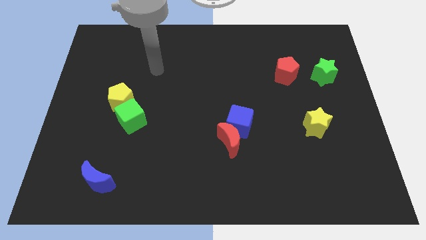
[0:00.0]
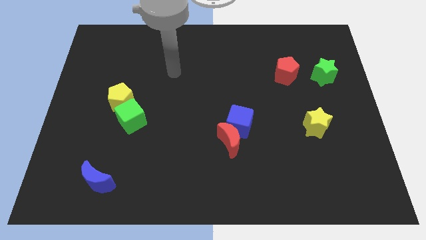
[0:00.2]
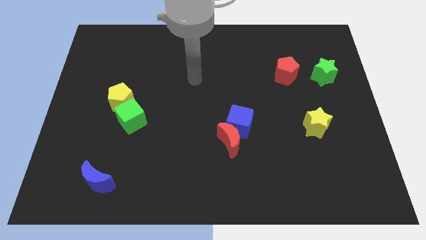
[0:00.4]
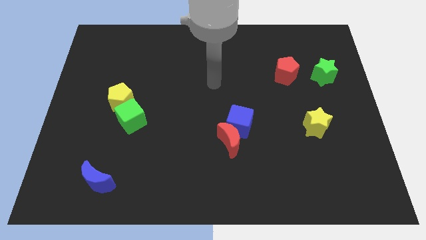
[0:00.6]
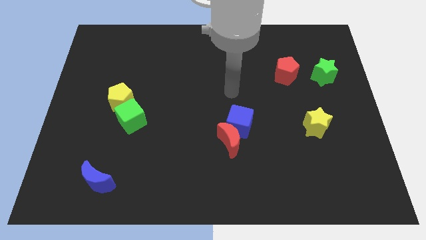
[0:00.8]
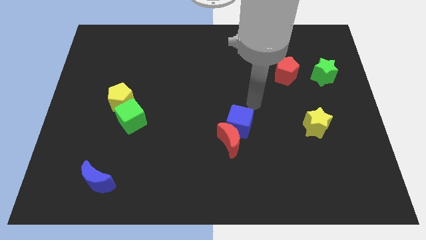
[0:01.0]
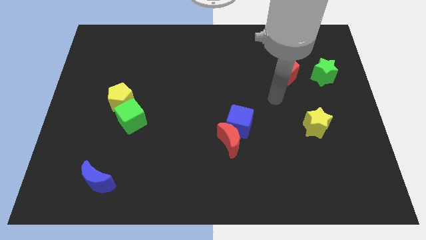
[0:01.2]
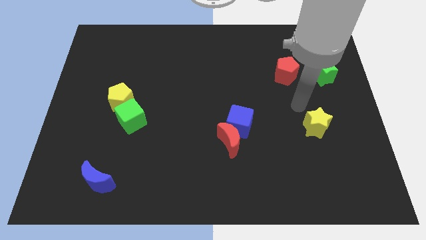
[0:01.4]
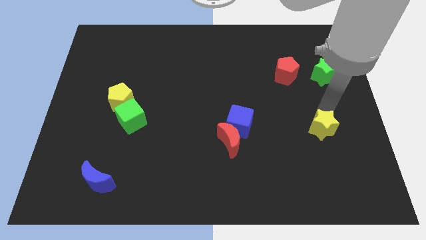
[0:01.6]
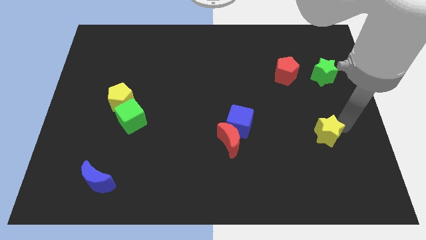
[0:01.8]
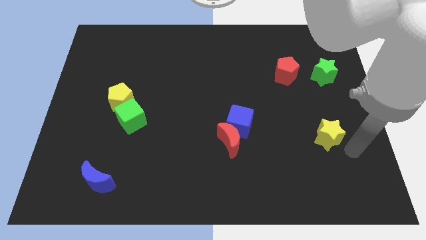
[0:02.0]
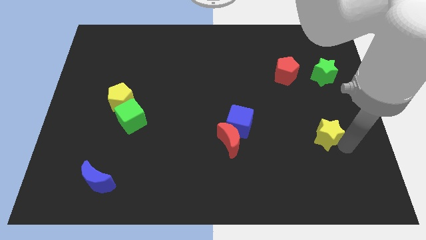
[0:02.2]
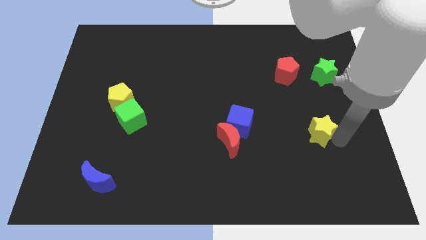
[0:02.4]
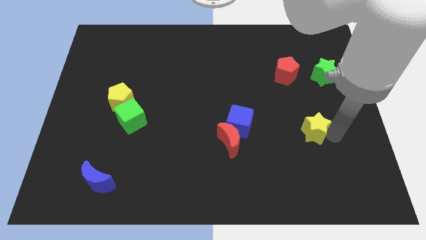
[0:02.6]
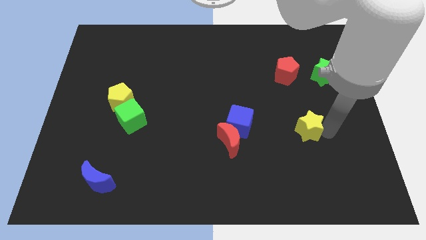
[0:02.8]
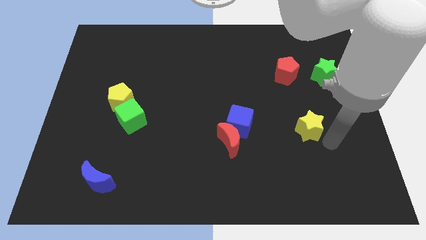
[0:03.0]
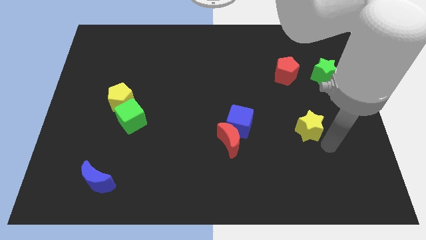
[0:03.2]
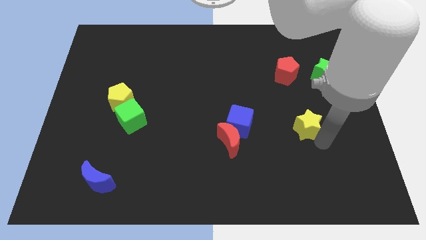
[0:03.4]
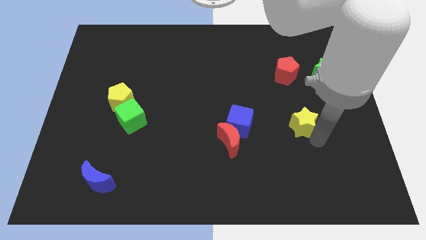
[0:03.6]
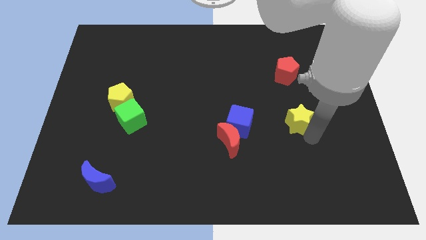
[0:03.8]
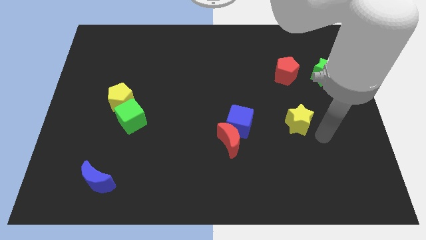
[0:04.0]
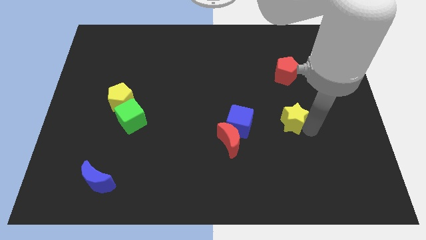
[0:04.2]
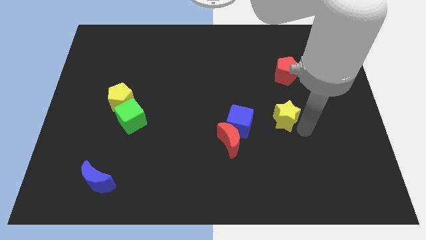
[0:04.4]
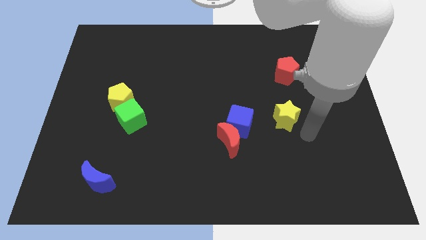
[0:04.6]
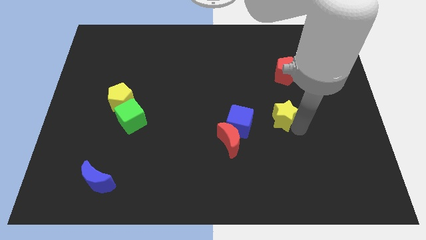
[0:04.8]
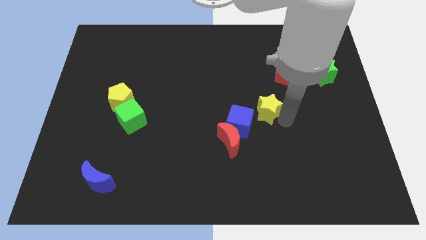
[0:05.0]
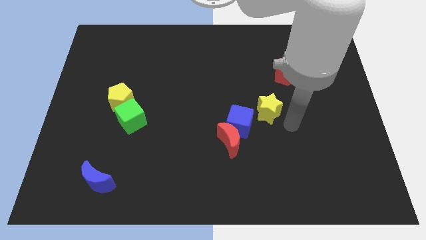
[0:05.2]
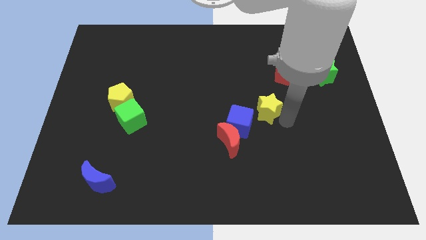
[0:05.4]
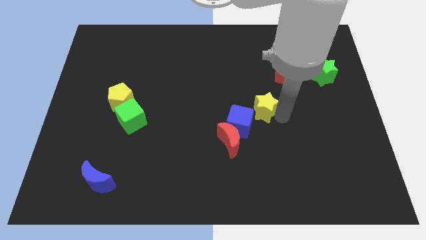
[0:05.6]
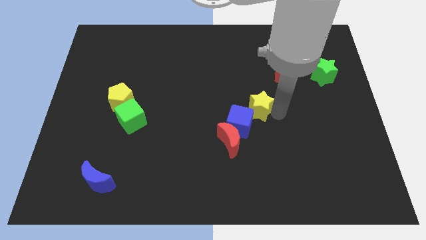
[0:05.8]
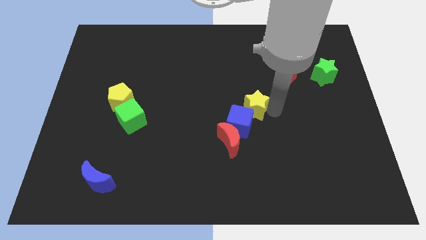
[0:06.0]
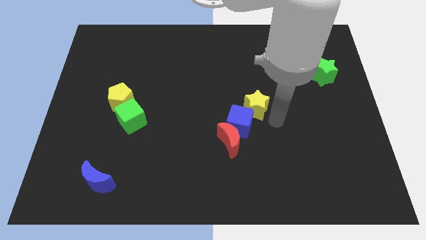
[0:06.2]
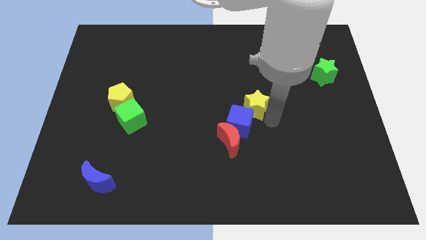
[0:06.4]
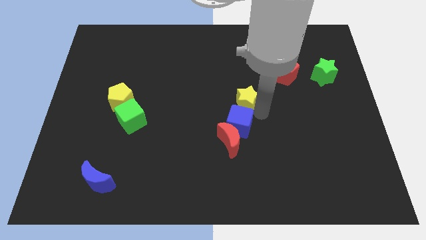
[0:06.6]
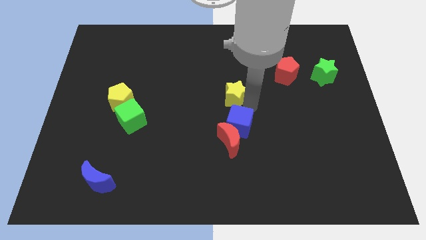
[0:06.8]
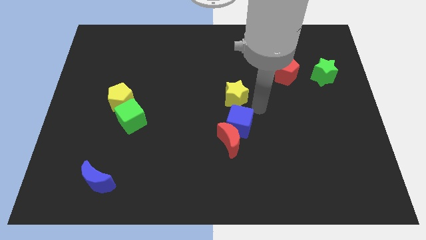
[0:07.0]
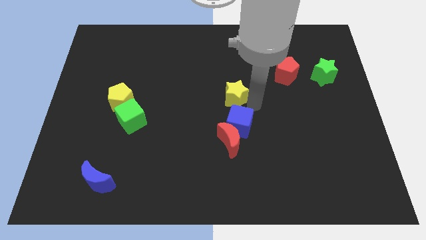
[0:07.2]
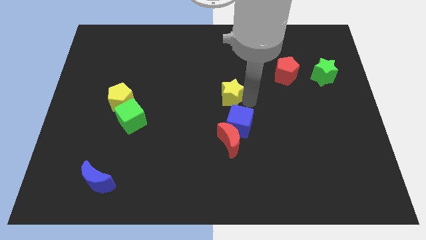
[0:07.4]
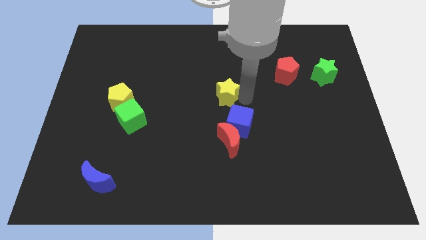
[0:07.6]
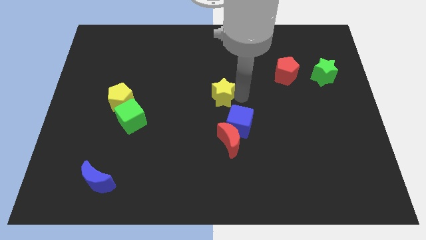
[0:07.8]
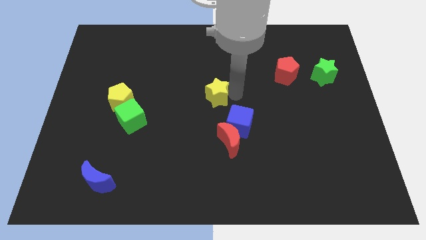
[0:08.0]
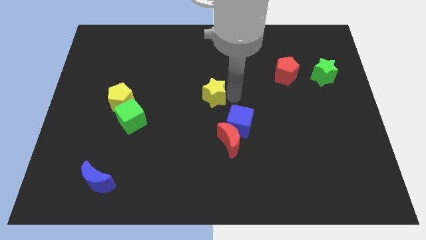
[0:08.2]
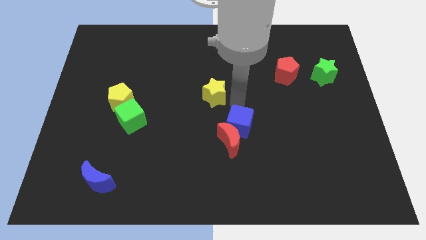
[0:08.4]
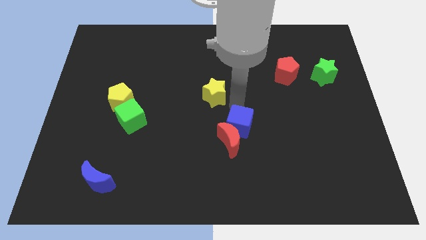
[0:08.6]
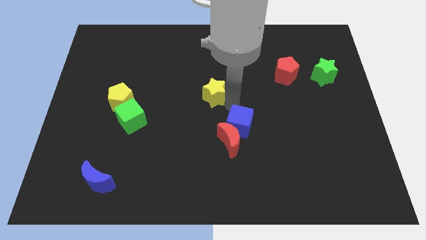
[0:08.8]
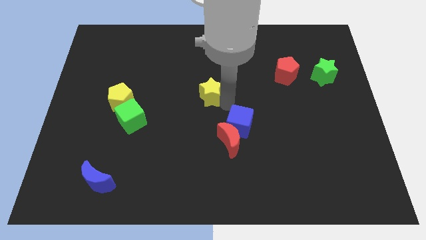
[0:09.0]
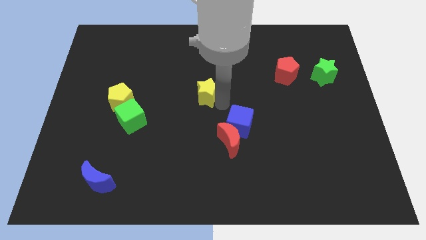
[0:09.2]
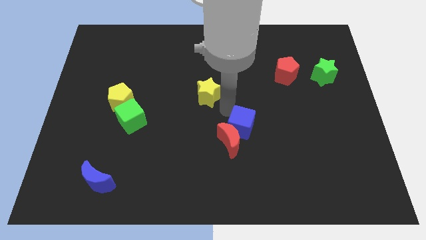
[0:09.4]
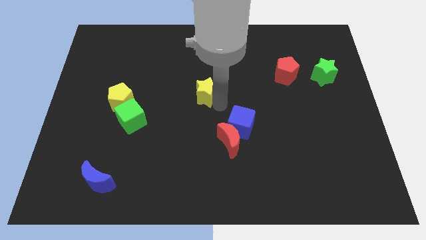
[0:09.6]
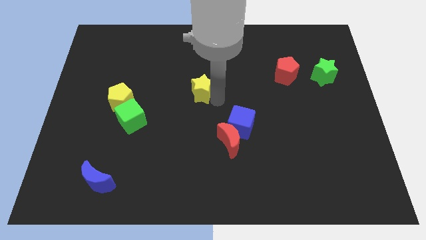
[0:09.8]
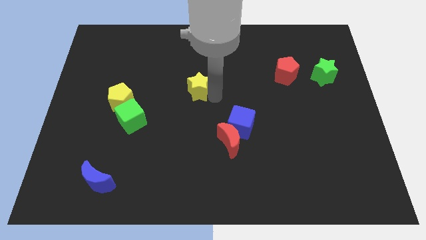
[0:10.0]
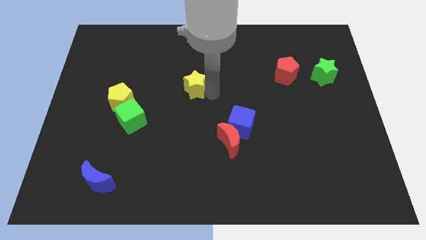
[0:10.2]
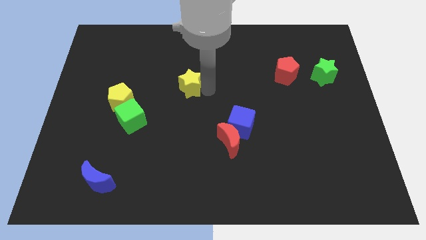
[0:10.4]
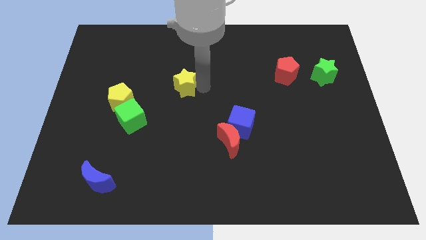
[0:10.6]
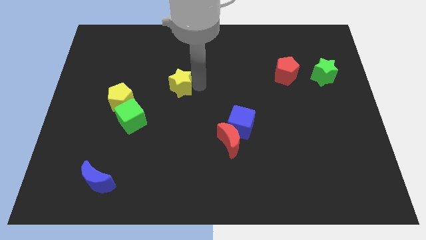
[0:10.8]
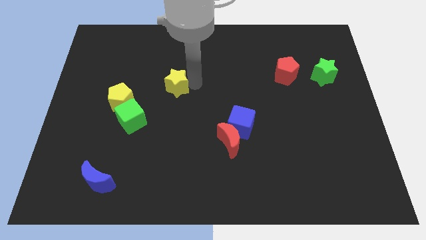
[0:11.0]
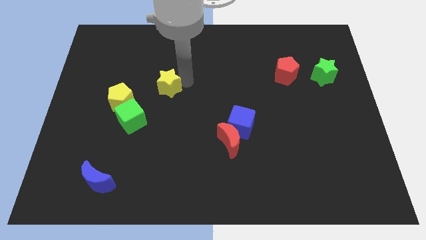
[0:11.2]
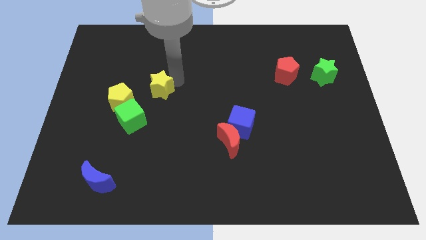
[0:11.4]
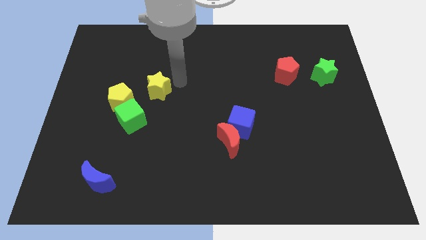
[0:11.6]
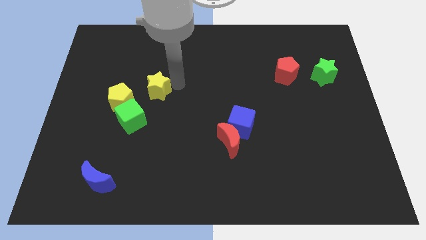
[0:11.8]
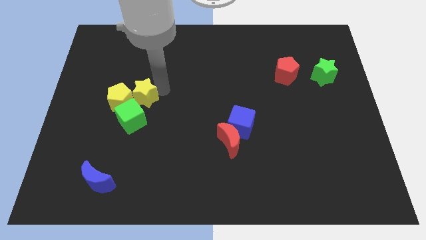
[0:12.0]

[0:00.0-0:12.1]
move the yellow star to the yellow pentagon

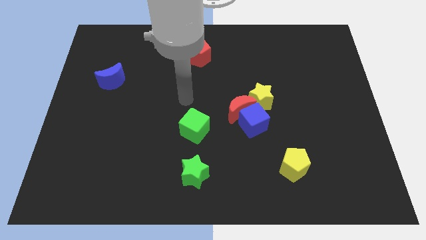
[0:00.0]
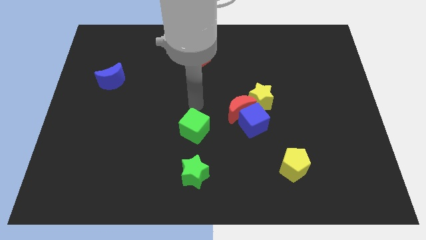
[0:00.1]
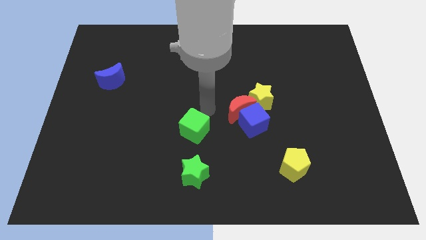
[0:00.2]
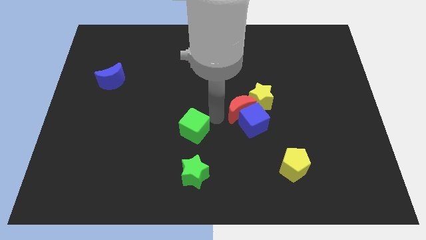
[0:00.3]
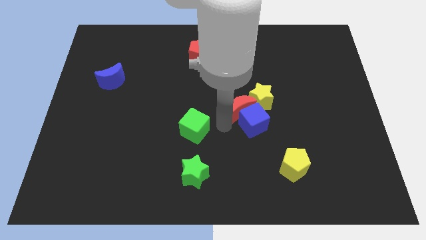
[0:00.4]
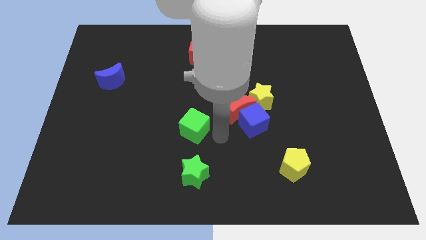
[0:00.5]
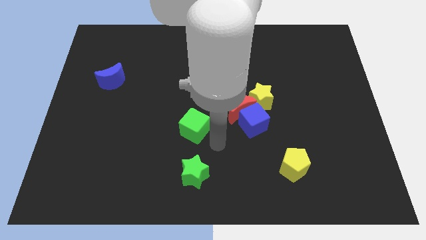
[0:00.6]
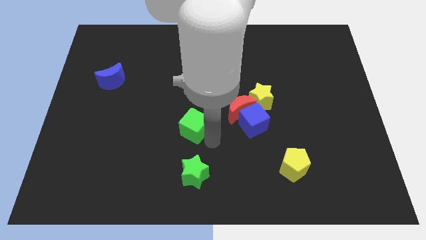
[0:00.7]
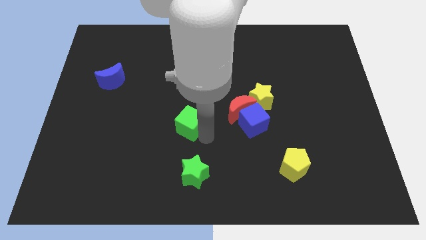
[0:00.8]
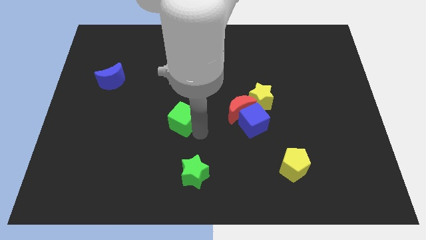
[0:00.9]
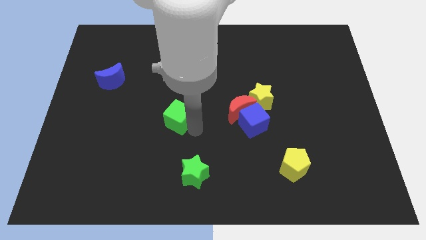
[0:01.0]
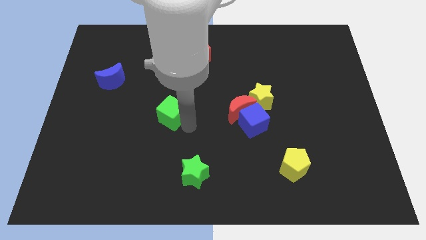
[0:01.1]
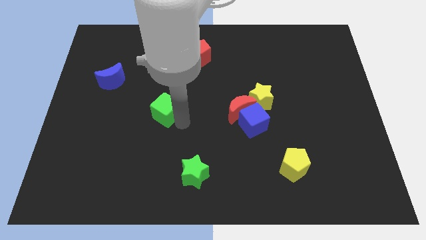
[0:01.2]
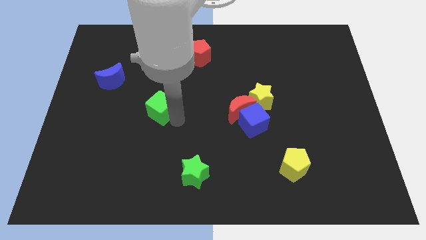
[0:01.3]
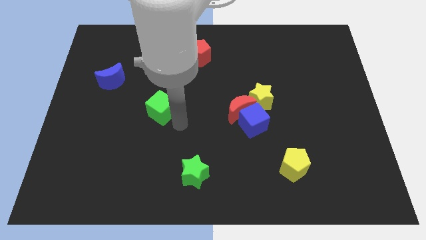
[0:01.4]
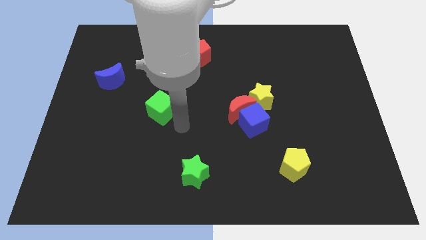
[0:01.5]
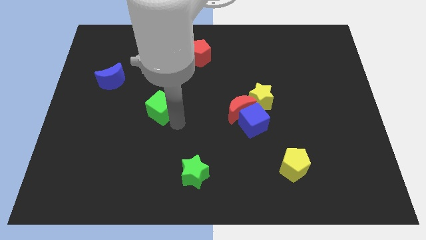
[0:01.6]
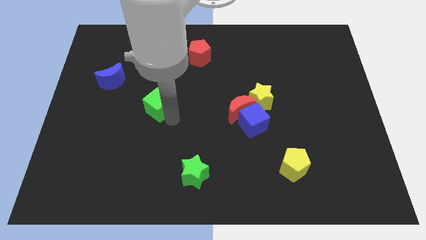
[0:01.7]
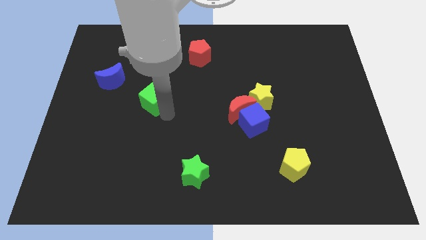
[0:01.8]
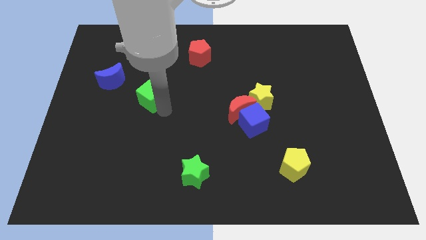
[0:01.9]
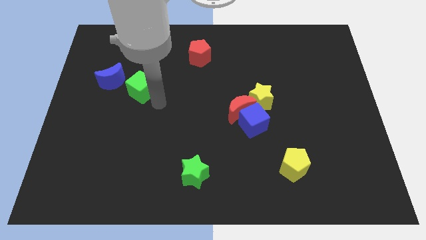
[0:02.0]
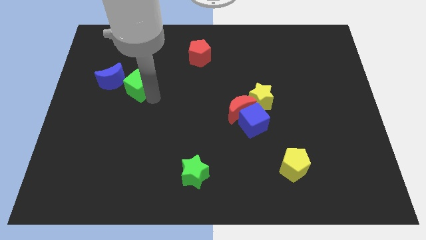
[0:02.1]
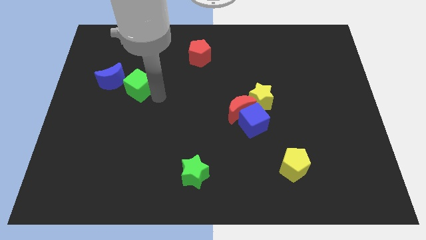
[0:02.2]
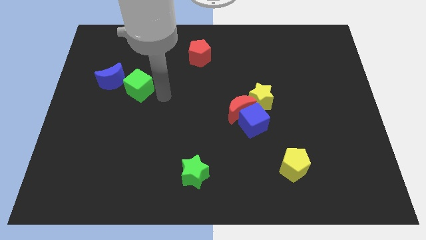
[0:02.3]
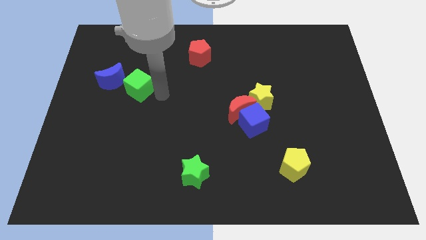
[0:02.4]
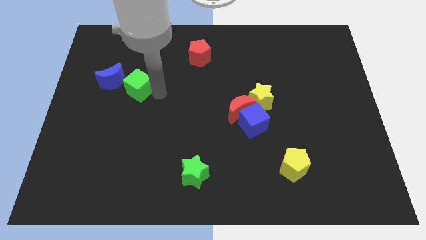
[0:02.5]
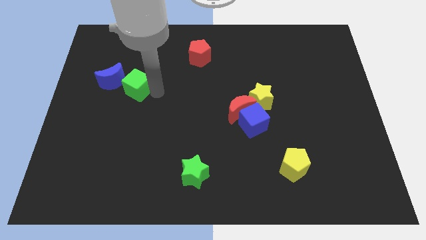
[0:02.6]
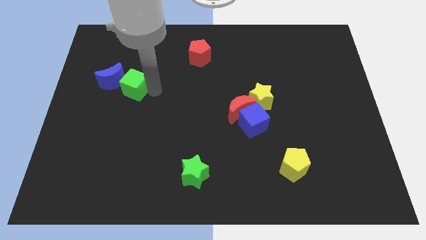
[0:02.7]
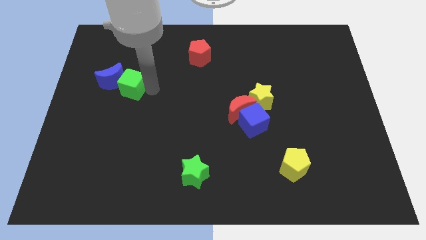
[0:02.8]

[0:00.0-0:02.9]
put the green cube next to the blue moon
